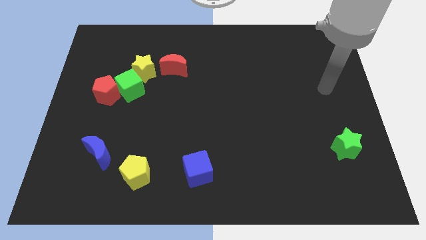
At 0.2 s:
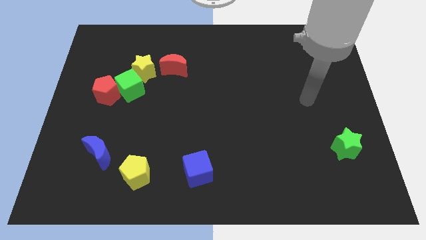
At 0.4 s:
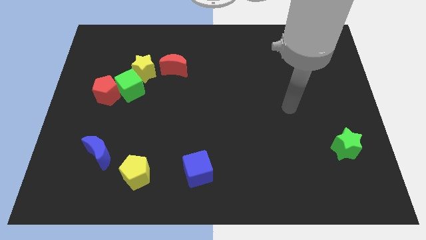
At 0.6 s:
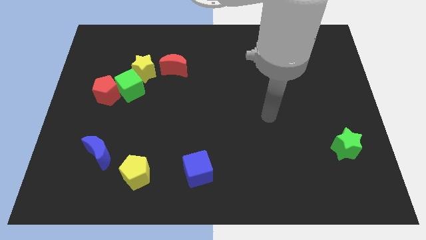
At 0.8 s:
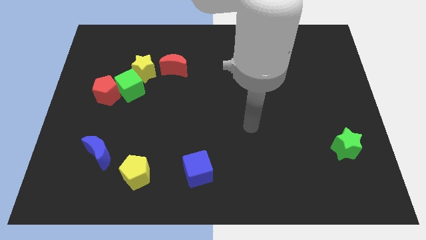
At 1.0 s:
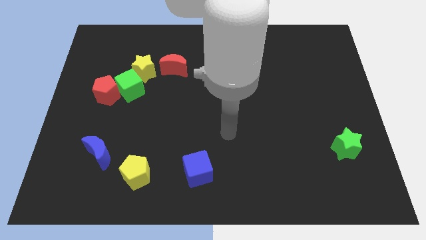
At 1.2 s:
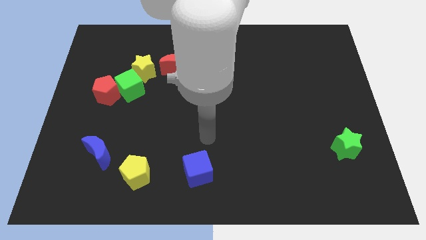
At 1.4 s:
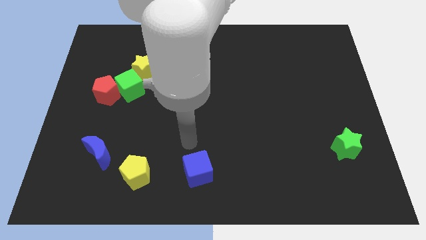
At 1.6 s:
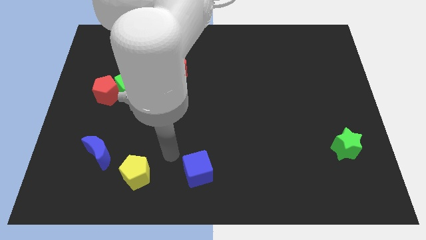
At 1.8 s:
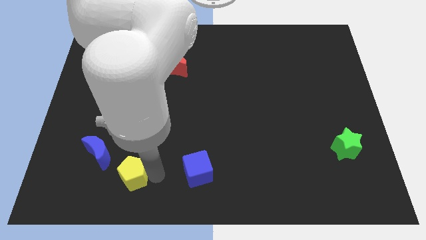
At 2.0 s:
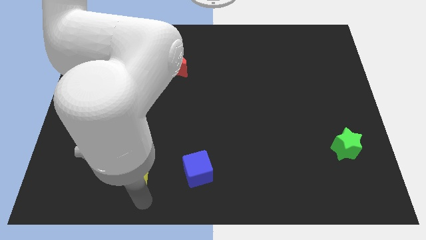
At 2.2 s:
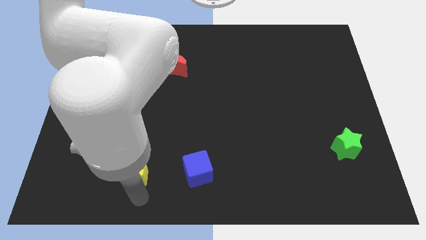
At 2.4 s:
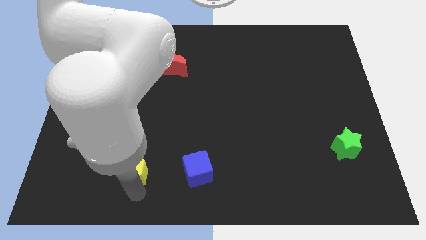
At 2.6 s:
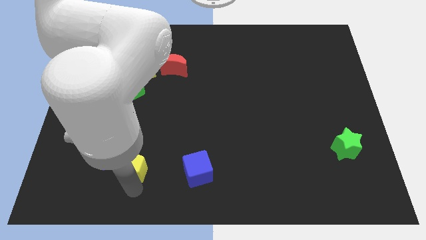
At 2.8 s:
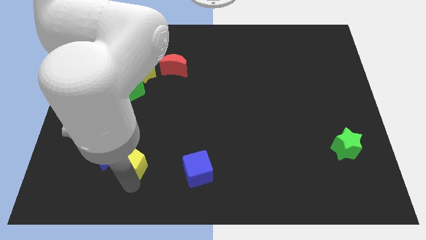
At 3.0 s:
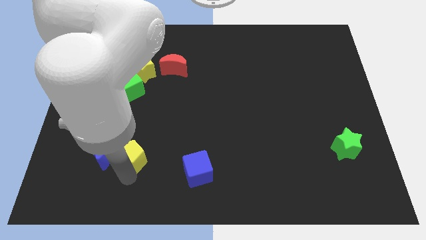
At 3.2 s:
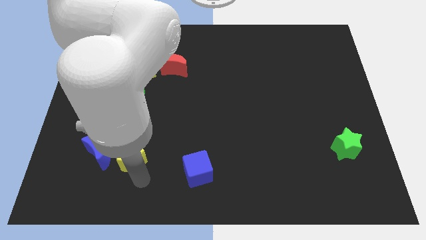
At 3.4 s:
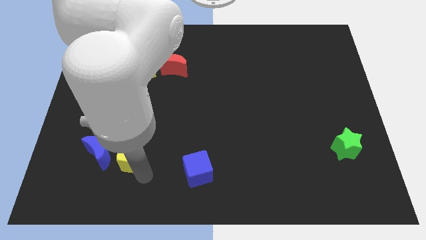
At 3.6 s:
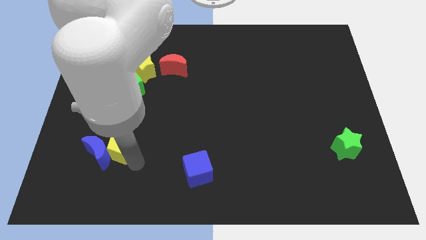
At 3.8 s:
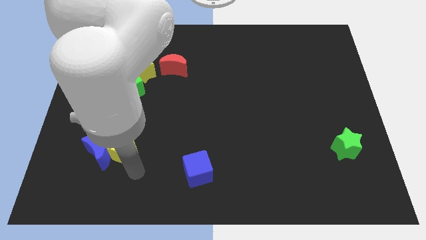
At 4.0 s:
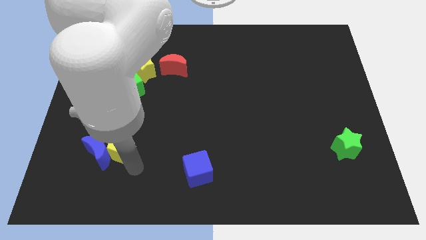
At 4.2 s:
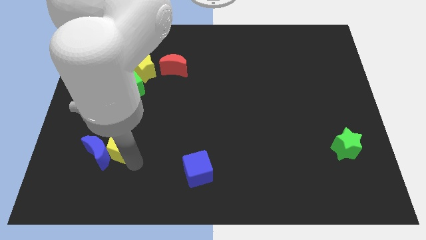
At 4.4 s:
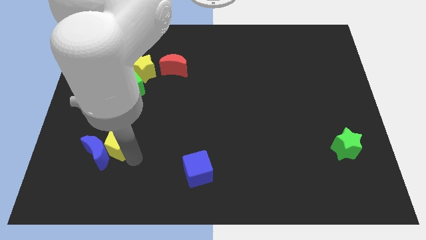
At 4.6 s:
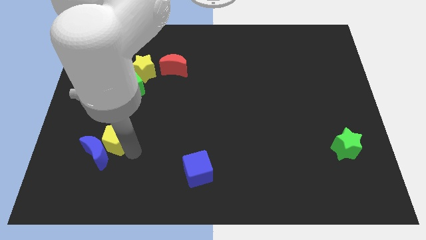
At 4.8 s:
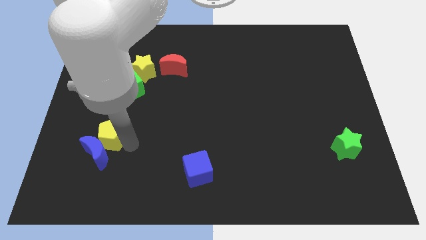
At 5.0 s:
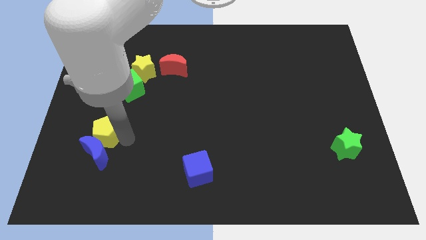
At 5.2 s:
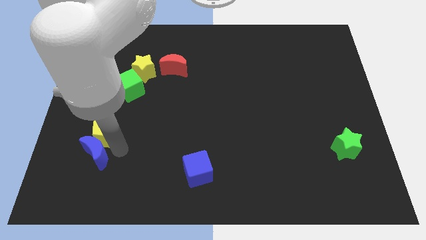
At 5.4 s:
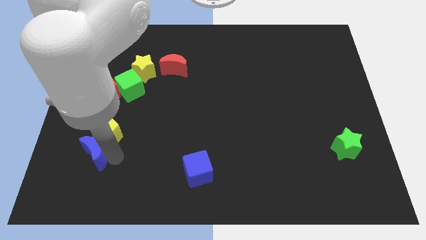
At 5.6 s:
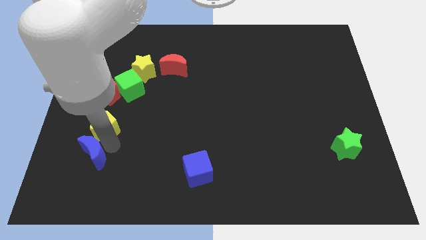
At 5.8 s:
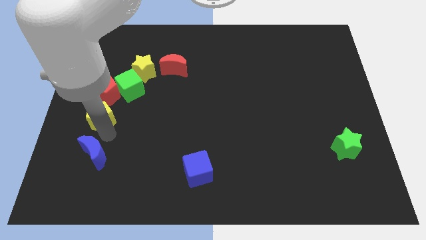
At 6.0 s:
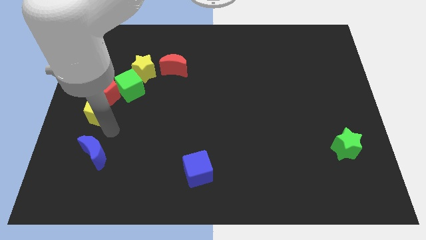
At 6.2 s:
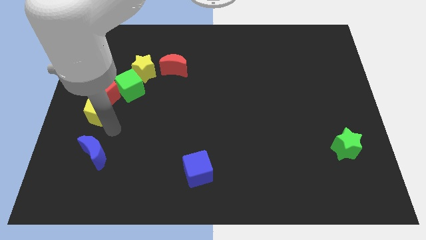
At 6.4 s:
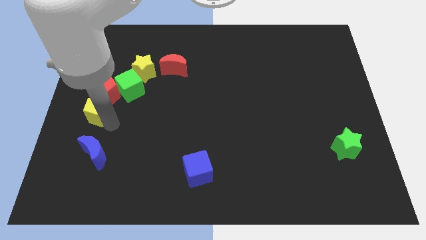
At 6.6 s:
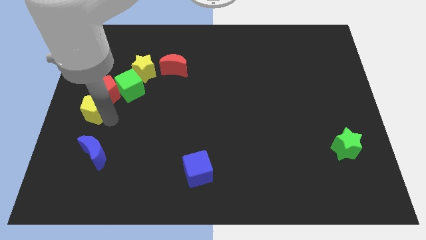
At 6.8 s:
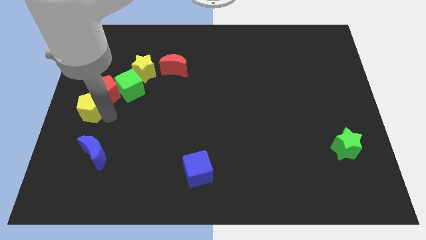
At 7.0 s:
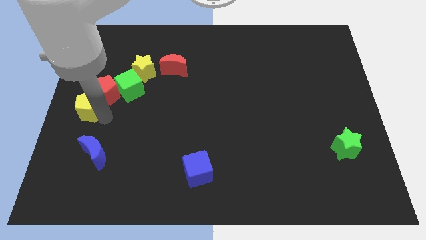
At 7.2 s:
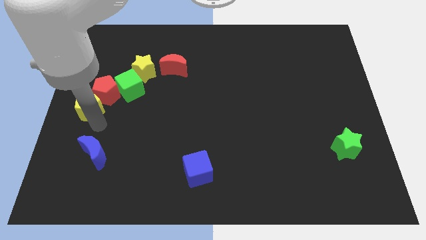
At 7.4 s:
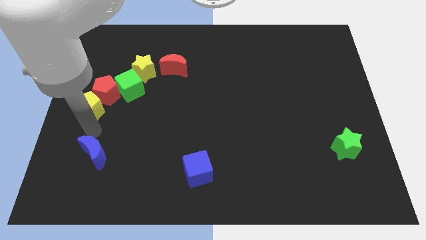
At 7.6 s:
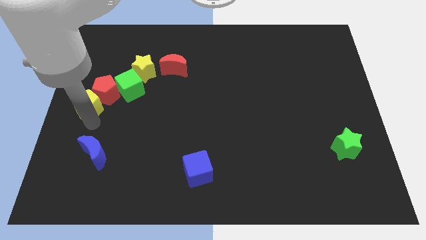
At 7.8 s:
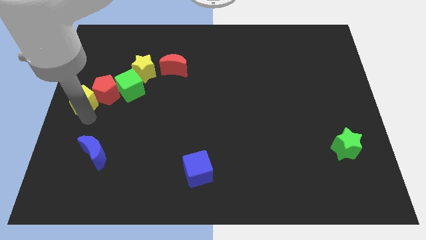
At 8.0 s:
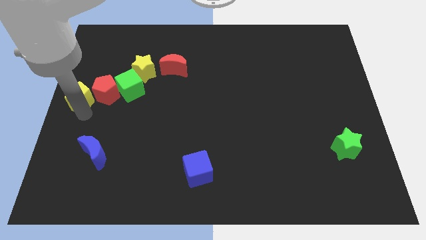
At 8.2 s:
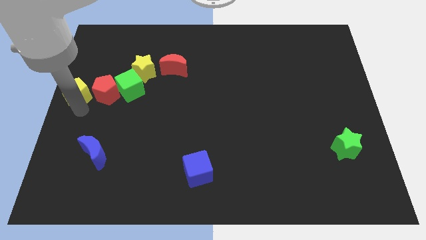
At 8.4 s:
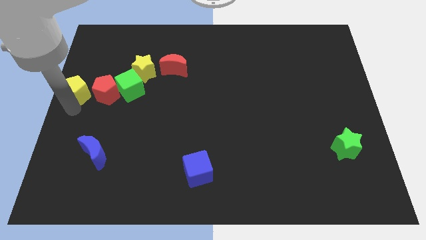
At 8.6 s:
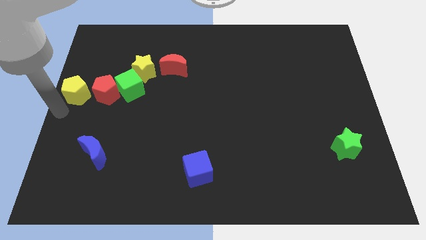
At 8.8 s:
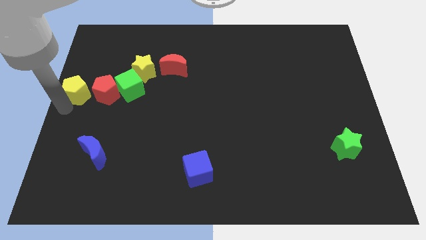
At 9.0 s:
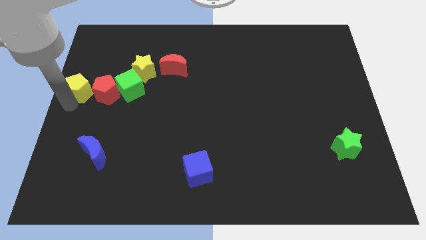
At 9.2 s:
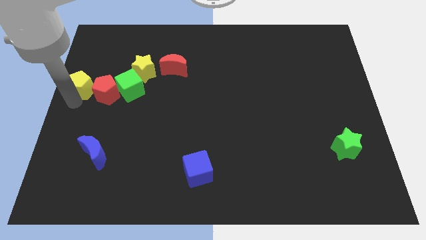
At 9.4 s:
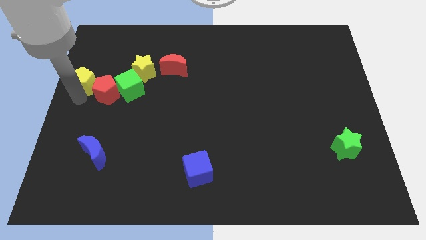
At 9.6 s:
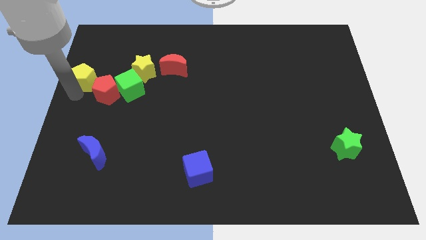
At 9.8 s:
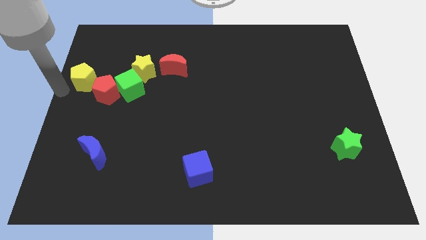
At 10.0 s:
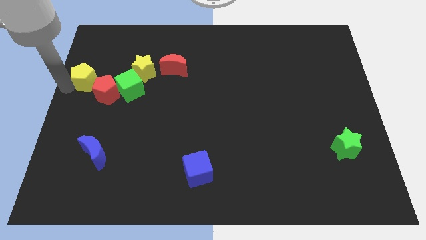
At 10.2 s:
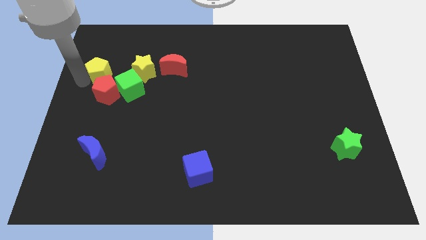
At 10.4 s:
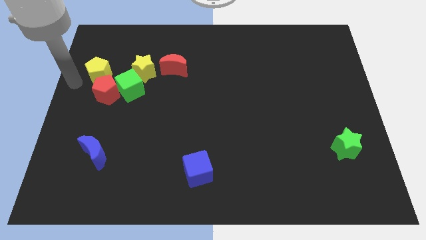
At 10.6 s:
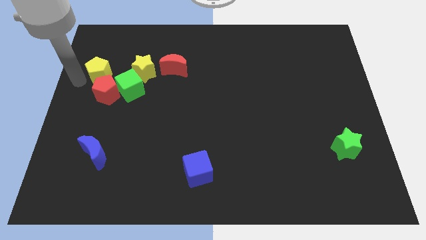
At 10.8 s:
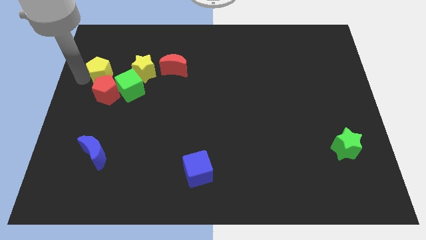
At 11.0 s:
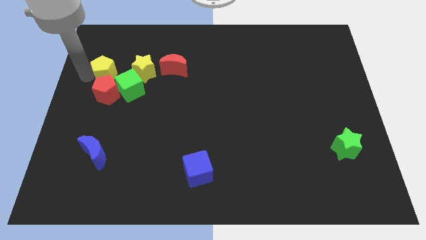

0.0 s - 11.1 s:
slide the yellow pentagon up

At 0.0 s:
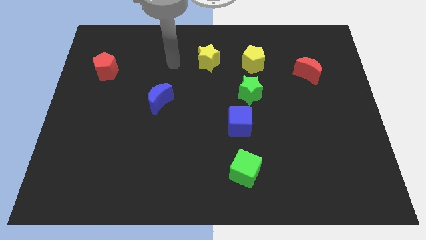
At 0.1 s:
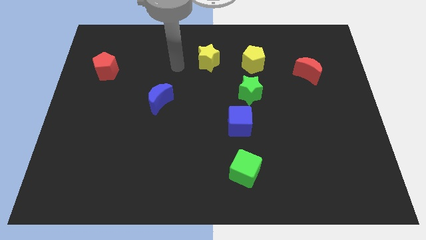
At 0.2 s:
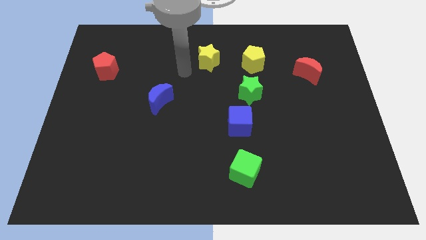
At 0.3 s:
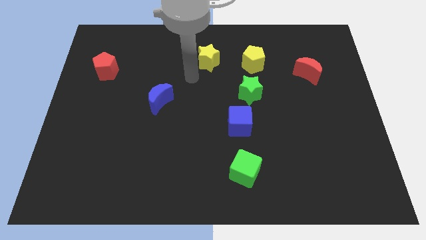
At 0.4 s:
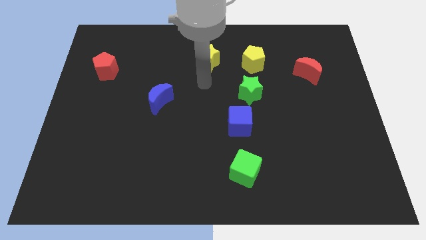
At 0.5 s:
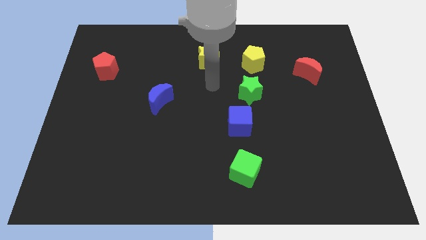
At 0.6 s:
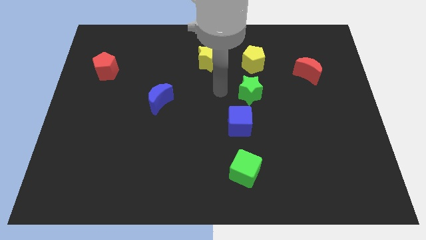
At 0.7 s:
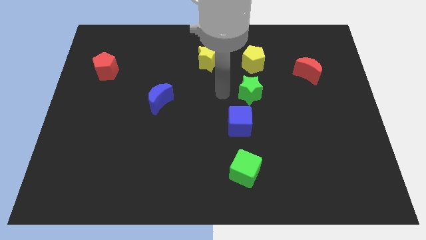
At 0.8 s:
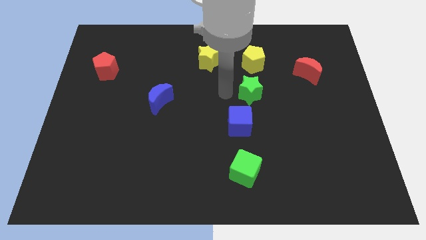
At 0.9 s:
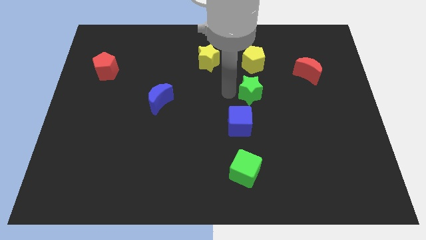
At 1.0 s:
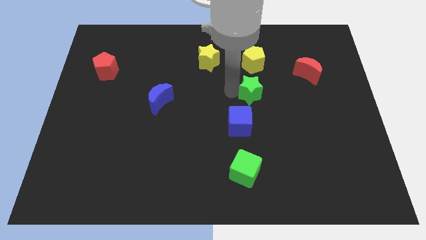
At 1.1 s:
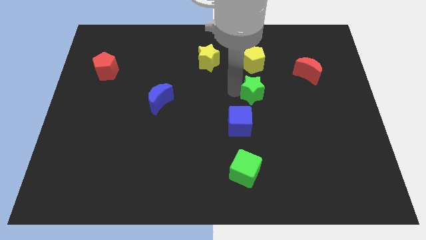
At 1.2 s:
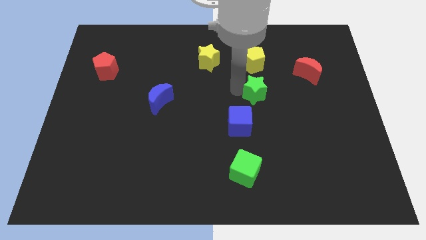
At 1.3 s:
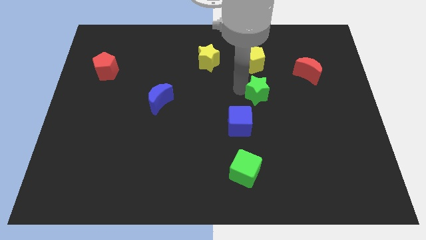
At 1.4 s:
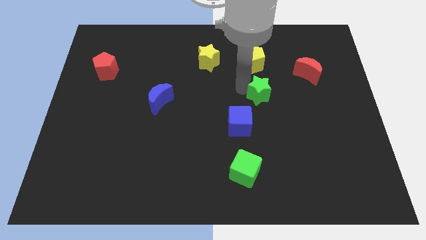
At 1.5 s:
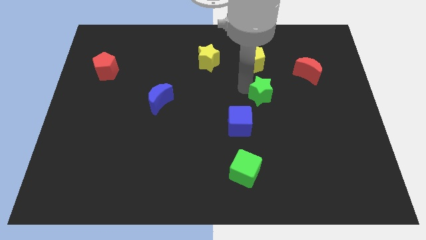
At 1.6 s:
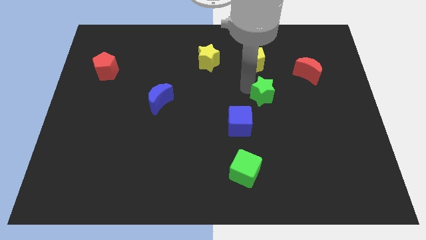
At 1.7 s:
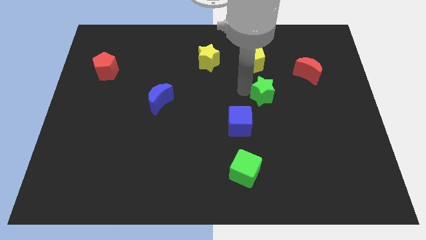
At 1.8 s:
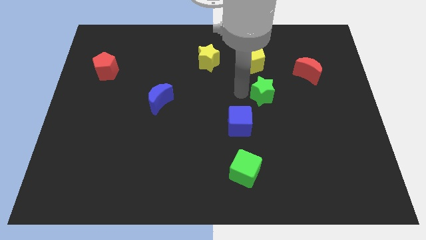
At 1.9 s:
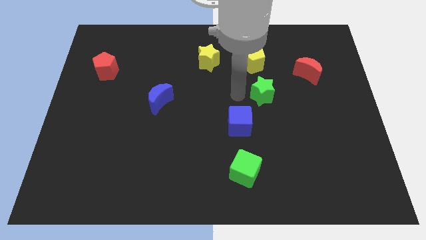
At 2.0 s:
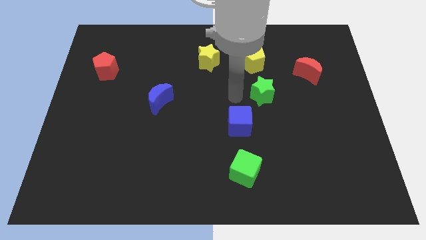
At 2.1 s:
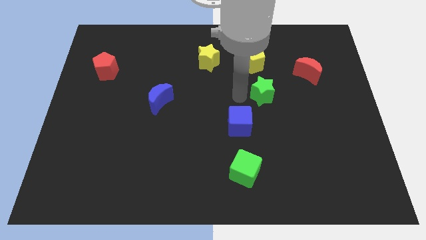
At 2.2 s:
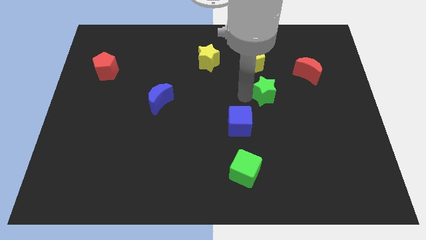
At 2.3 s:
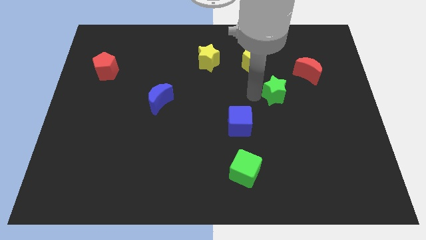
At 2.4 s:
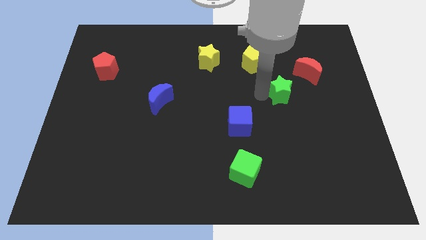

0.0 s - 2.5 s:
slightly push the green star to the right
